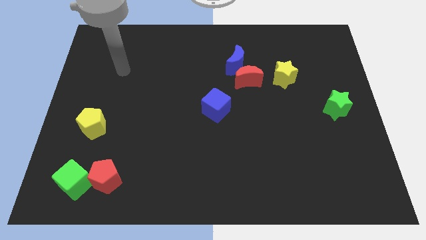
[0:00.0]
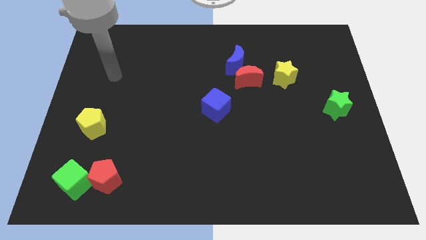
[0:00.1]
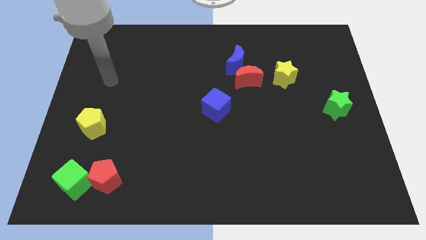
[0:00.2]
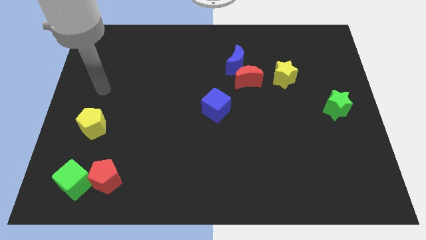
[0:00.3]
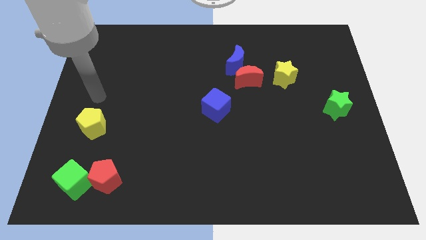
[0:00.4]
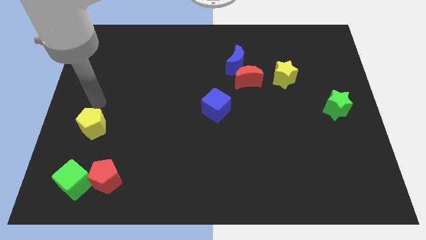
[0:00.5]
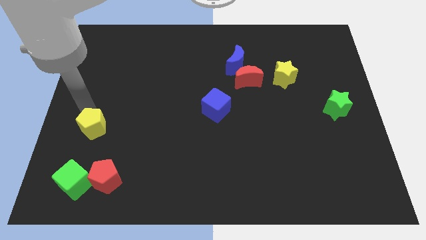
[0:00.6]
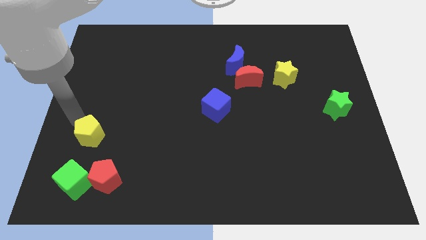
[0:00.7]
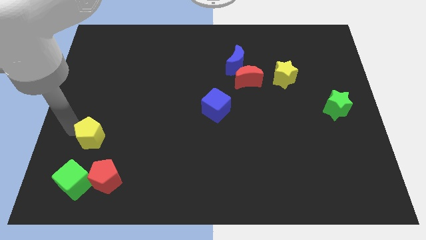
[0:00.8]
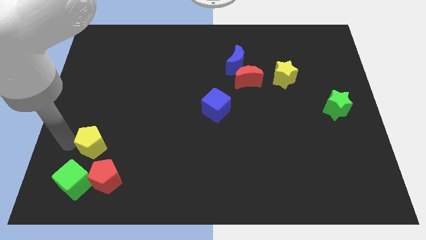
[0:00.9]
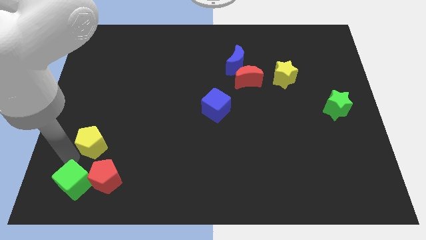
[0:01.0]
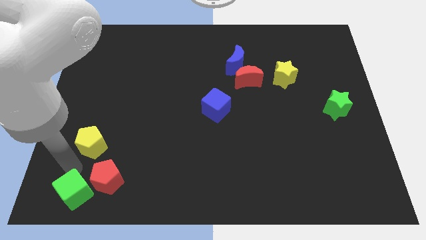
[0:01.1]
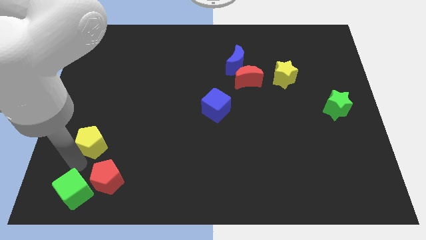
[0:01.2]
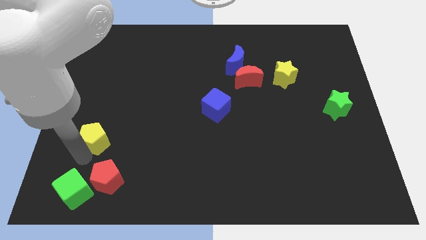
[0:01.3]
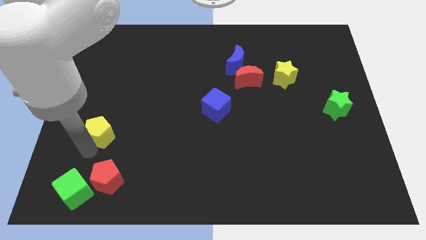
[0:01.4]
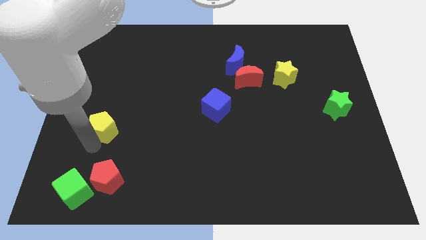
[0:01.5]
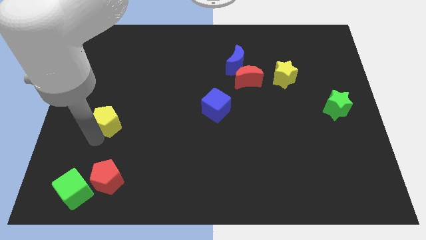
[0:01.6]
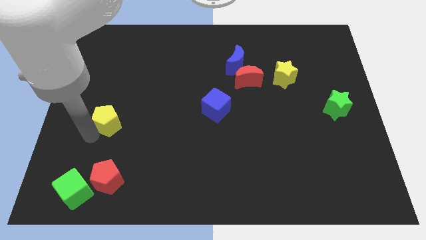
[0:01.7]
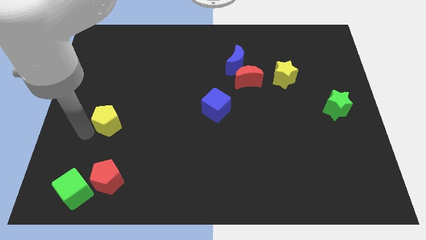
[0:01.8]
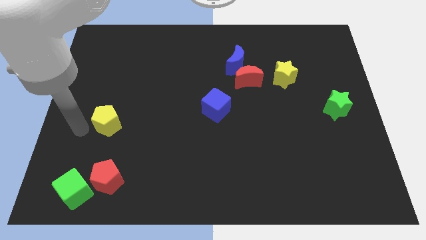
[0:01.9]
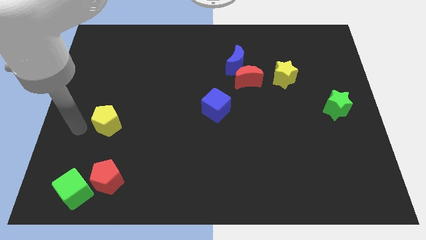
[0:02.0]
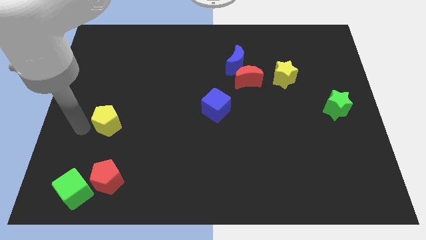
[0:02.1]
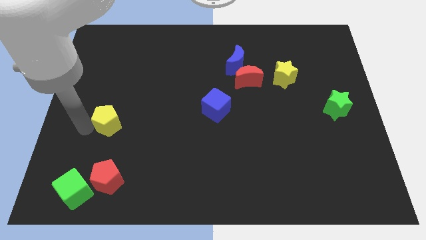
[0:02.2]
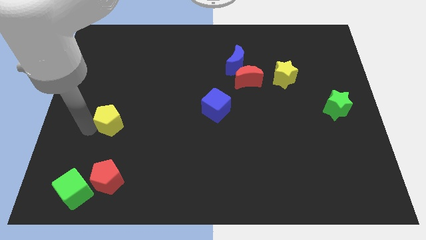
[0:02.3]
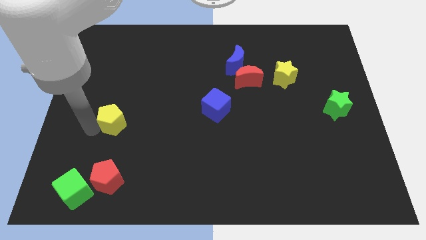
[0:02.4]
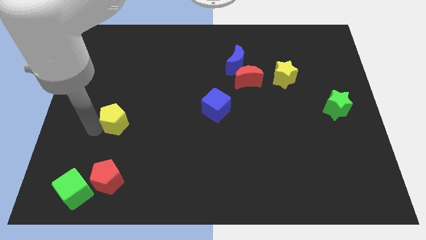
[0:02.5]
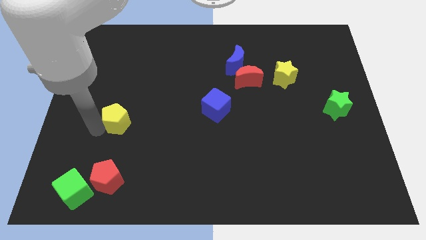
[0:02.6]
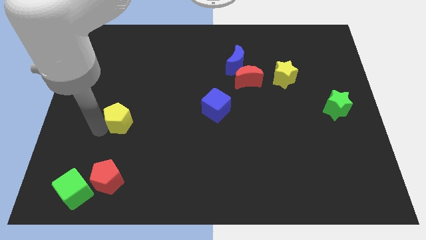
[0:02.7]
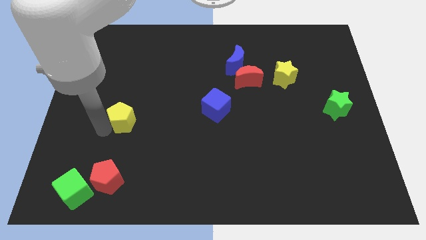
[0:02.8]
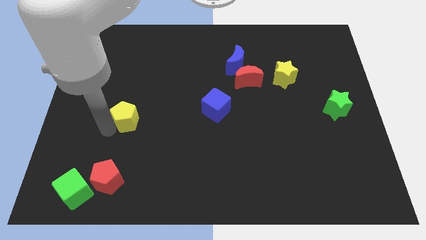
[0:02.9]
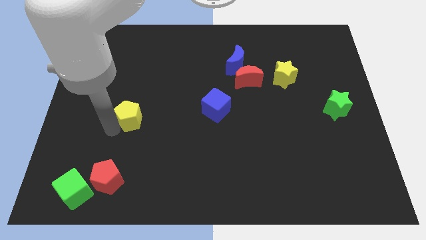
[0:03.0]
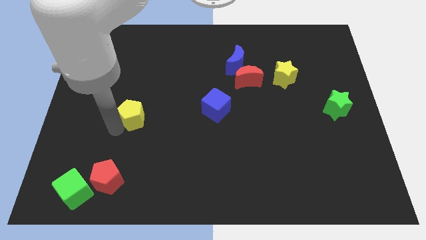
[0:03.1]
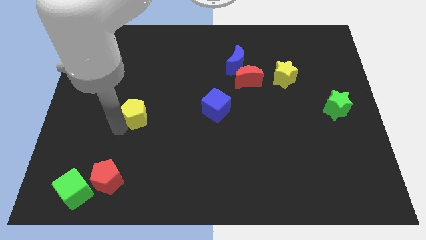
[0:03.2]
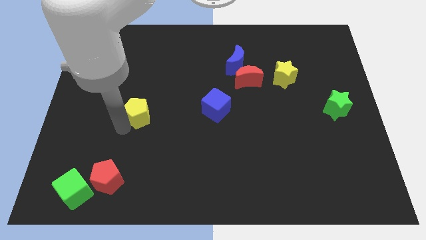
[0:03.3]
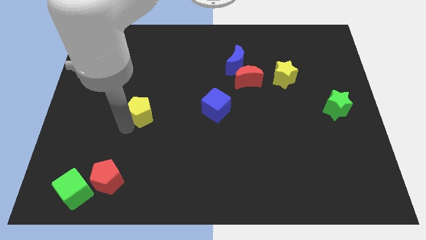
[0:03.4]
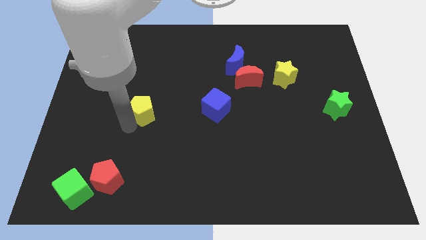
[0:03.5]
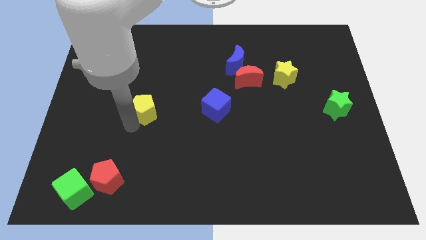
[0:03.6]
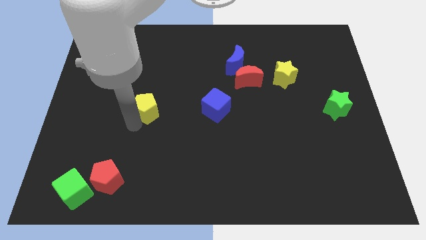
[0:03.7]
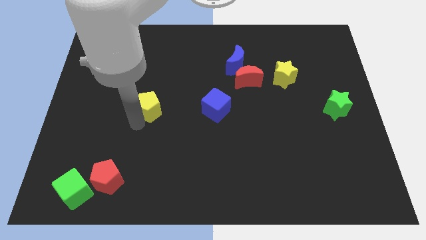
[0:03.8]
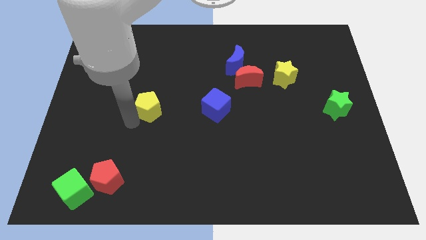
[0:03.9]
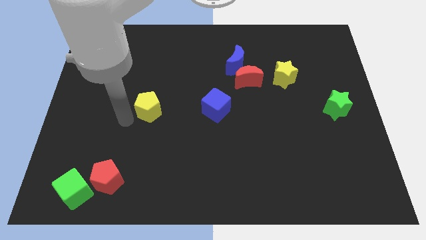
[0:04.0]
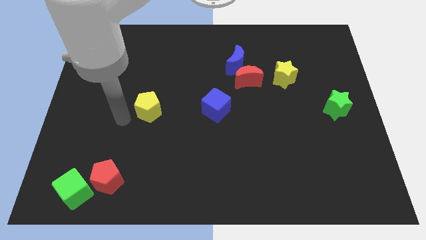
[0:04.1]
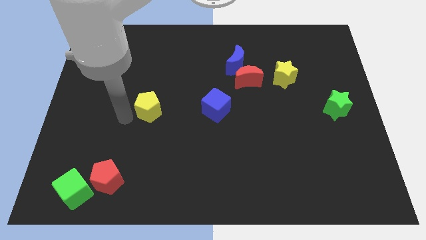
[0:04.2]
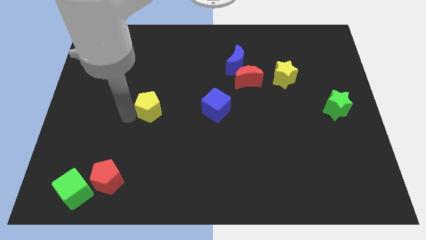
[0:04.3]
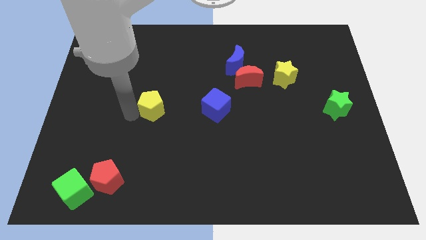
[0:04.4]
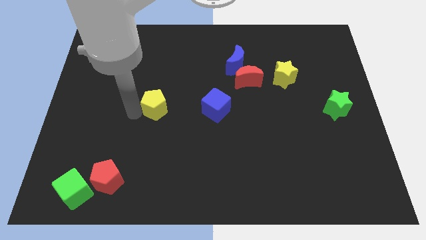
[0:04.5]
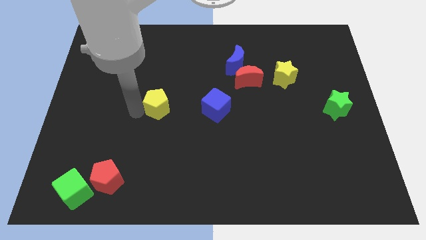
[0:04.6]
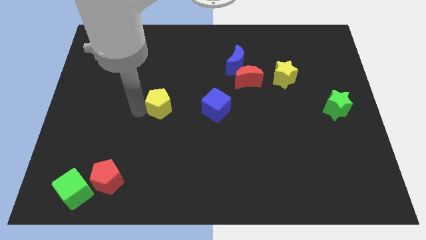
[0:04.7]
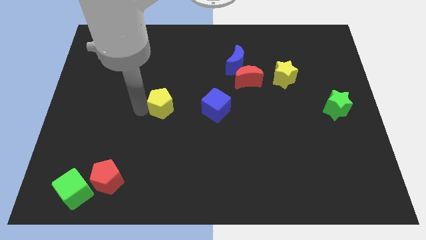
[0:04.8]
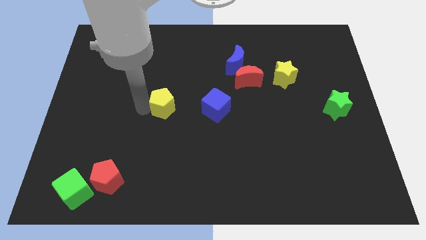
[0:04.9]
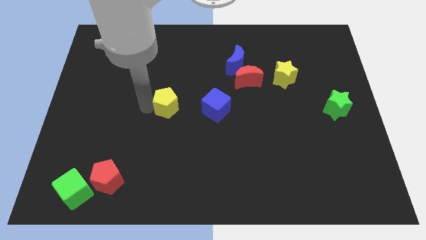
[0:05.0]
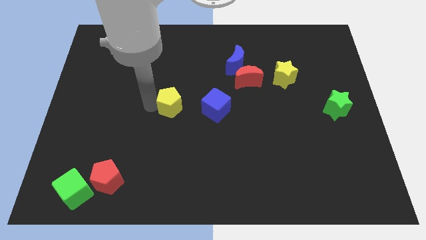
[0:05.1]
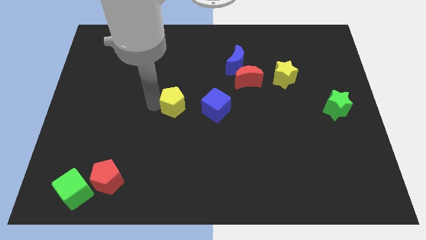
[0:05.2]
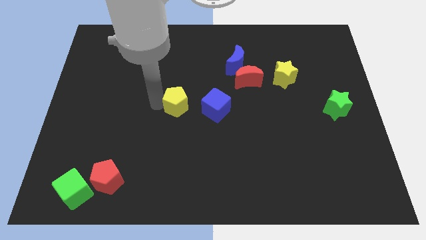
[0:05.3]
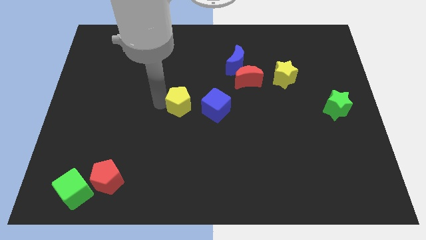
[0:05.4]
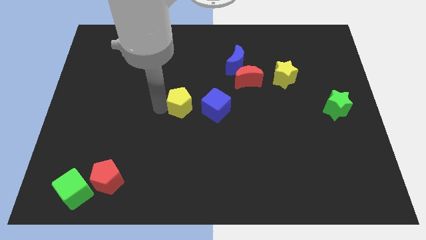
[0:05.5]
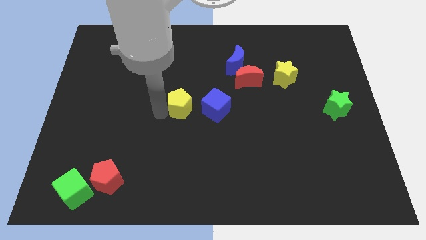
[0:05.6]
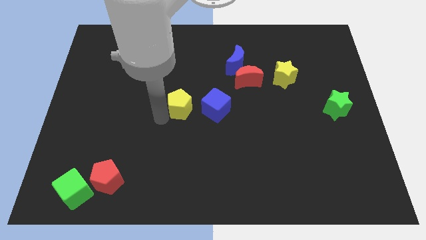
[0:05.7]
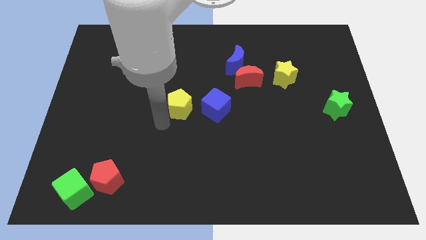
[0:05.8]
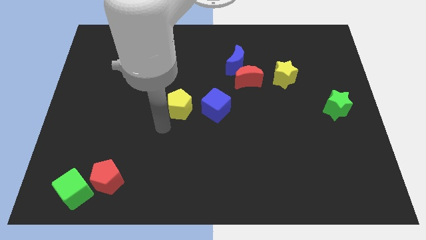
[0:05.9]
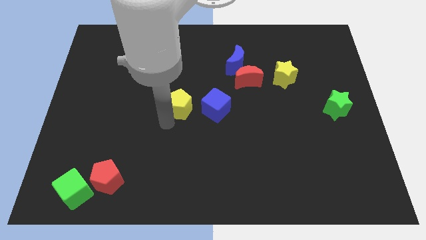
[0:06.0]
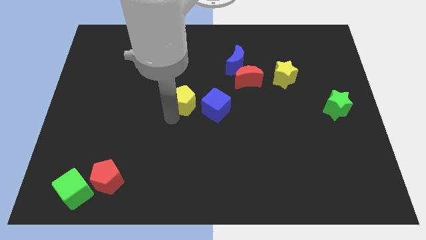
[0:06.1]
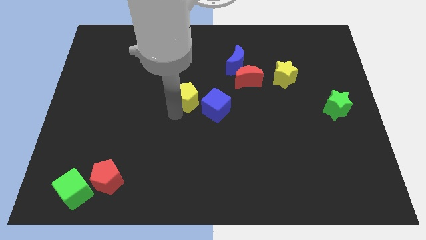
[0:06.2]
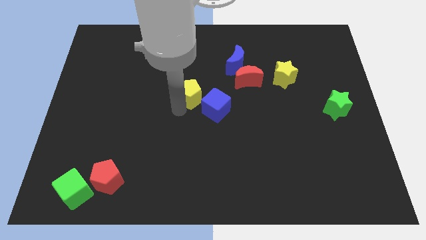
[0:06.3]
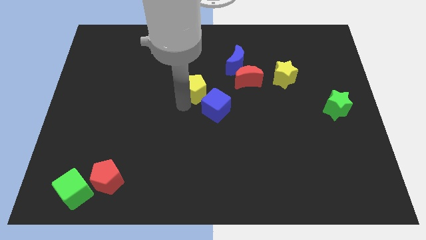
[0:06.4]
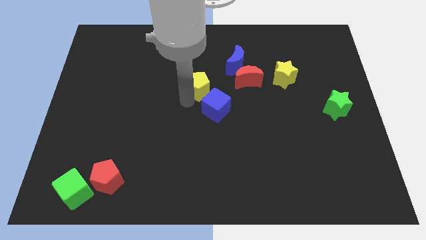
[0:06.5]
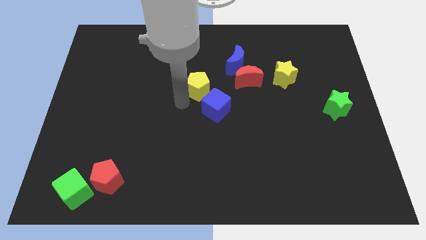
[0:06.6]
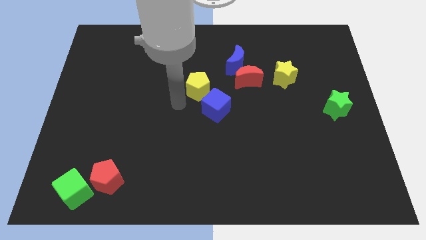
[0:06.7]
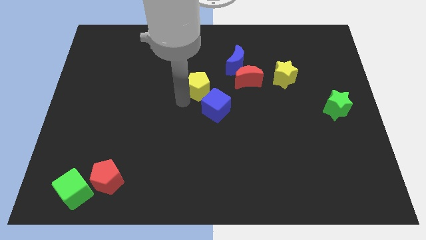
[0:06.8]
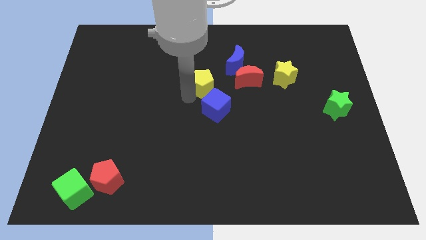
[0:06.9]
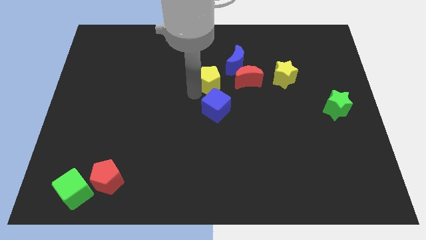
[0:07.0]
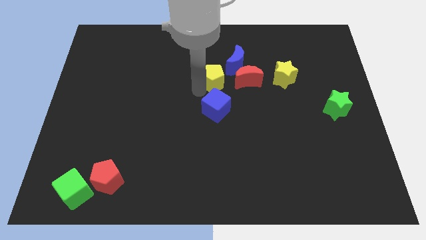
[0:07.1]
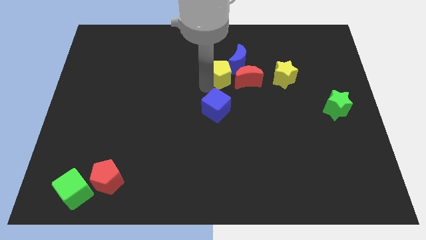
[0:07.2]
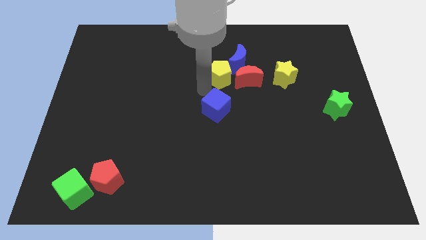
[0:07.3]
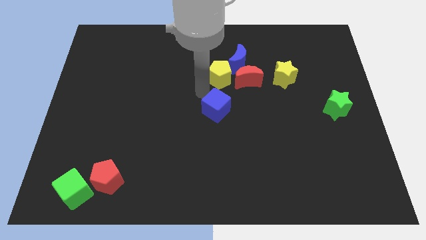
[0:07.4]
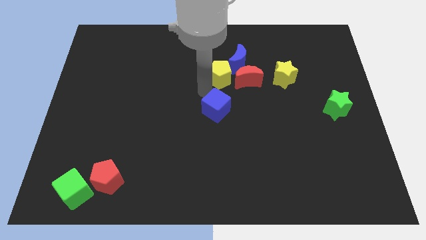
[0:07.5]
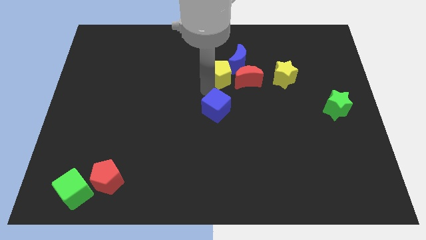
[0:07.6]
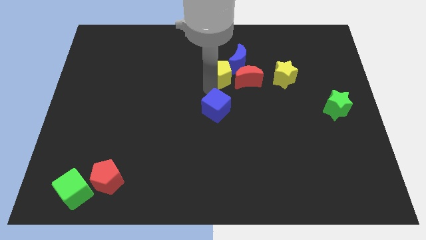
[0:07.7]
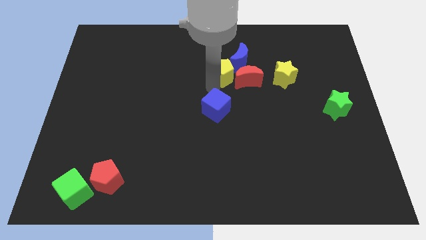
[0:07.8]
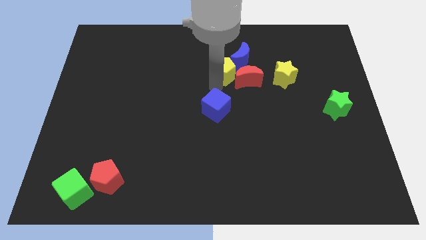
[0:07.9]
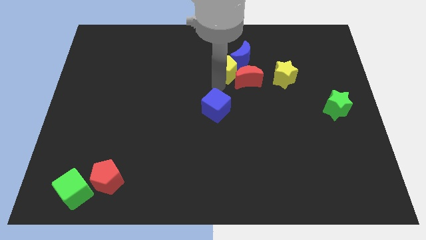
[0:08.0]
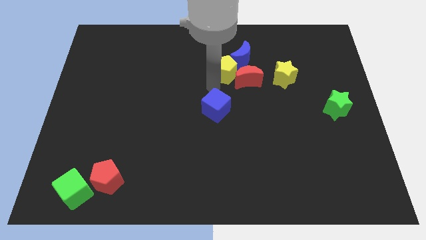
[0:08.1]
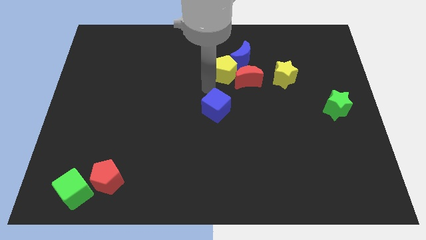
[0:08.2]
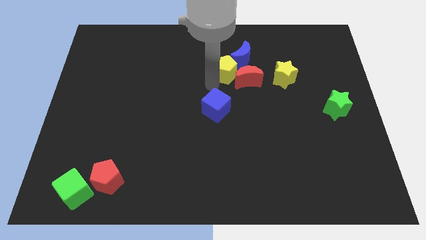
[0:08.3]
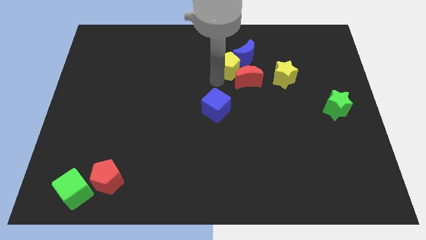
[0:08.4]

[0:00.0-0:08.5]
push the yellow pentagon next to the blue moon
